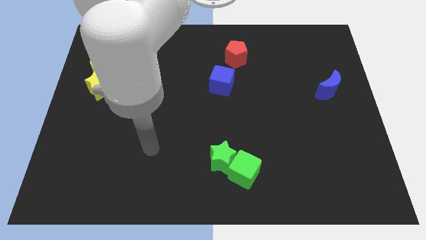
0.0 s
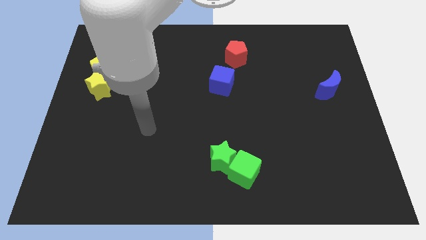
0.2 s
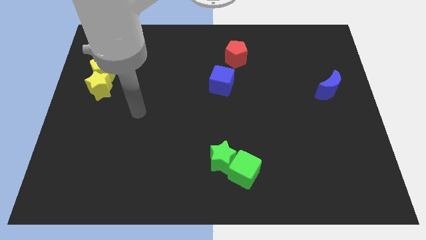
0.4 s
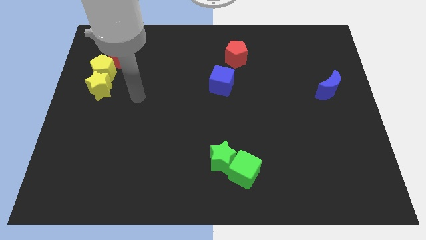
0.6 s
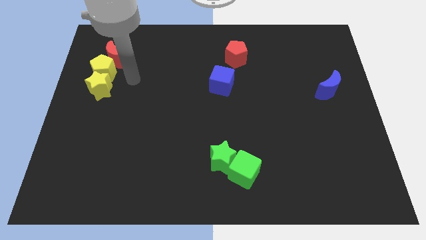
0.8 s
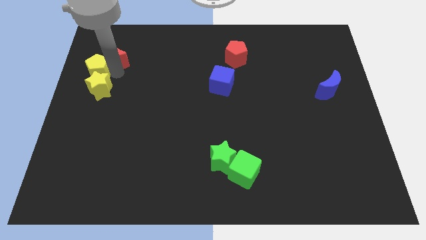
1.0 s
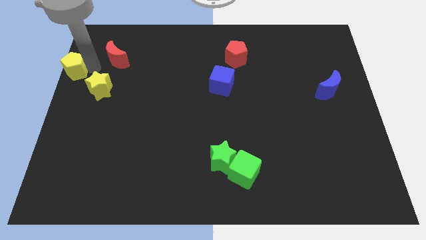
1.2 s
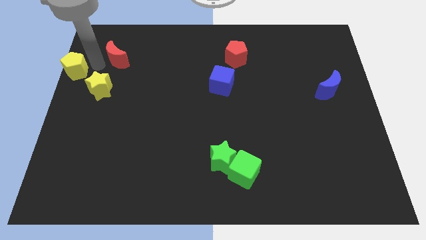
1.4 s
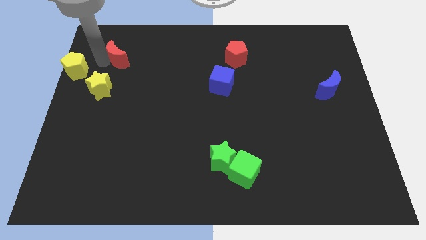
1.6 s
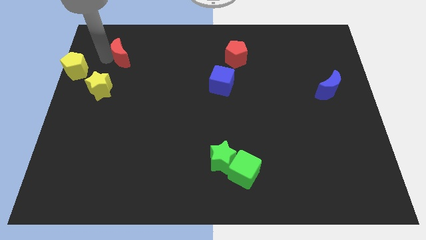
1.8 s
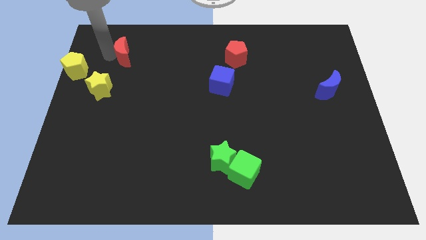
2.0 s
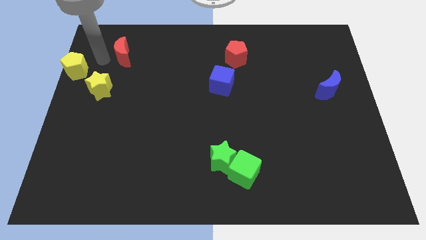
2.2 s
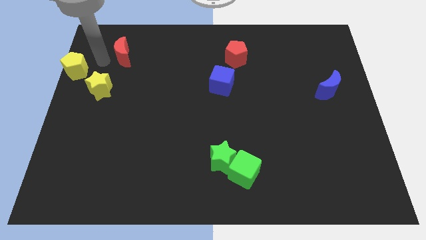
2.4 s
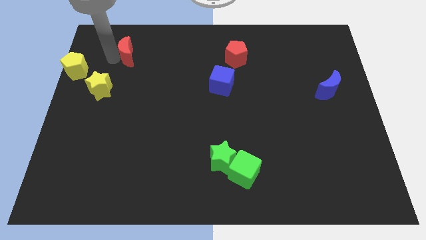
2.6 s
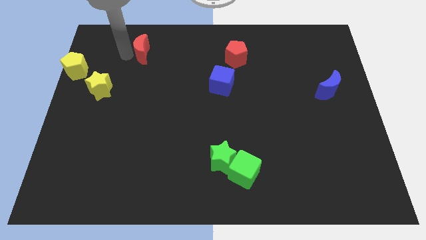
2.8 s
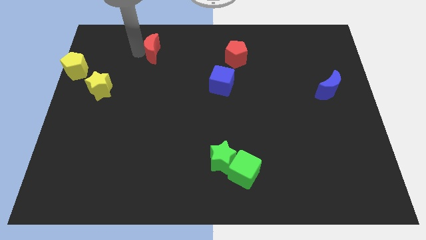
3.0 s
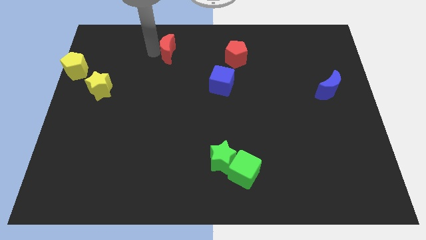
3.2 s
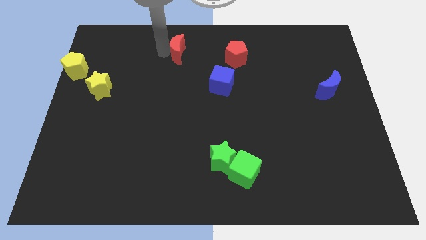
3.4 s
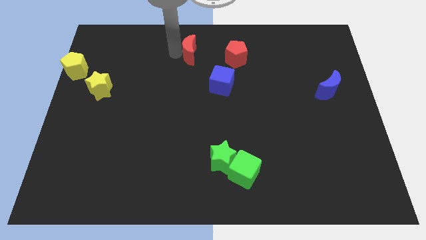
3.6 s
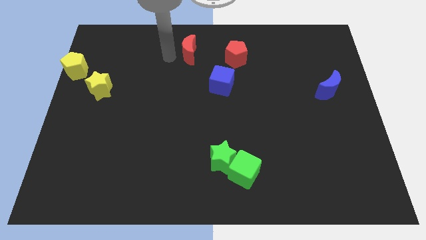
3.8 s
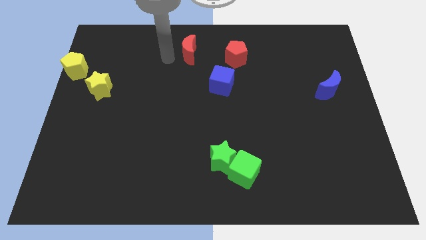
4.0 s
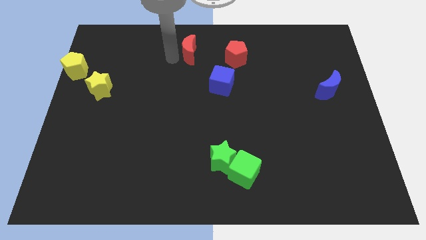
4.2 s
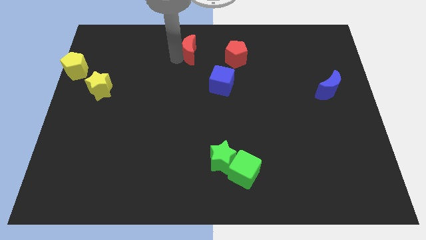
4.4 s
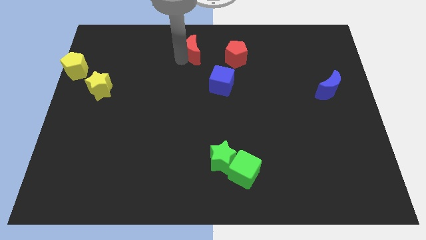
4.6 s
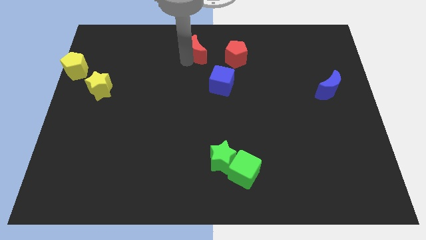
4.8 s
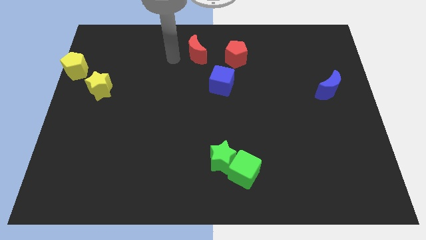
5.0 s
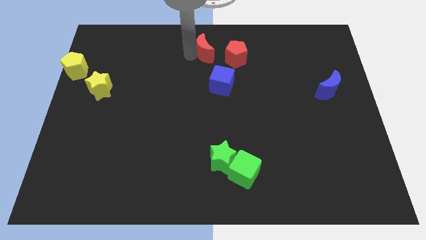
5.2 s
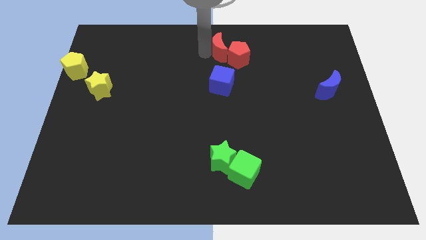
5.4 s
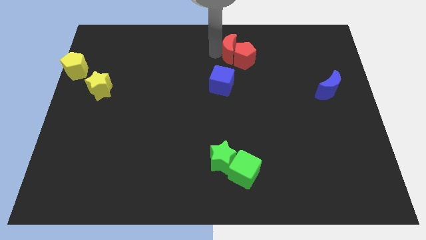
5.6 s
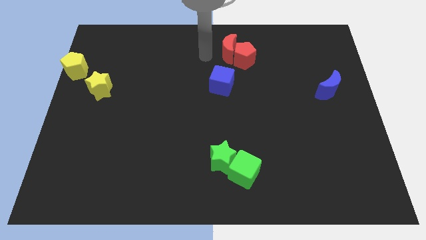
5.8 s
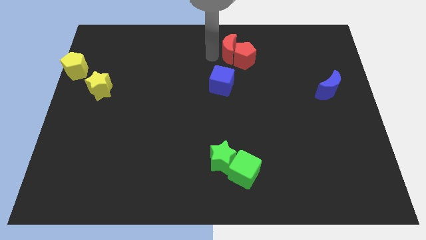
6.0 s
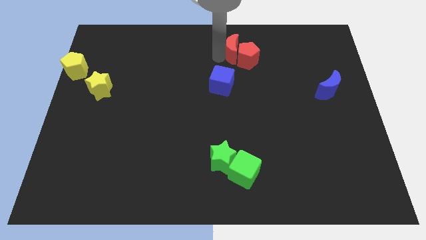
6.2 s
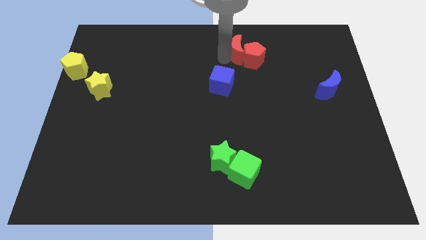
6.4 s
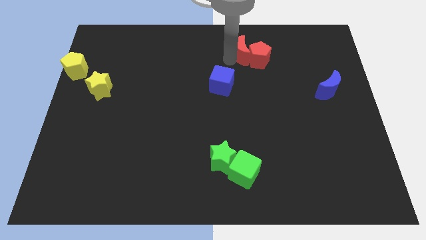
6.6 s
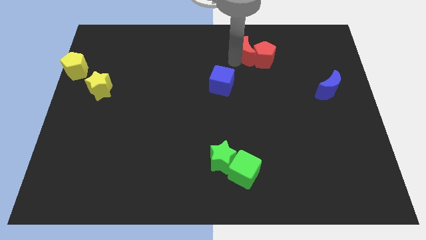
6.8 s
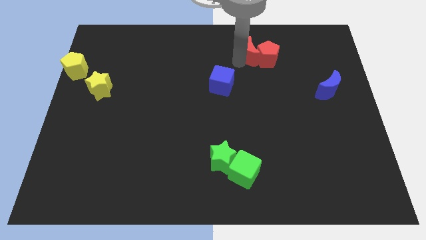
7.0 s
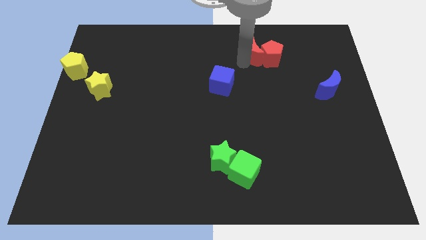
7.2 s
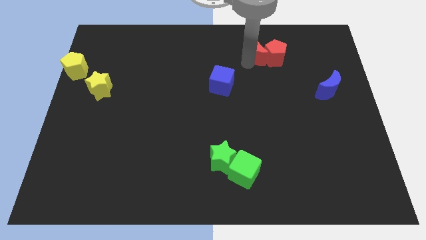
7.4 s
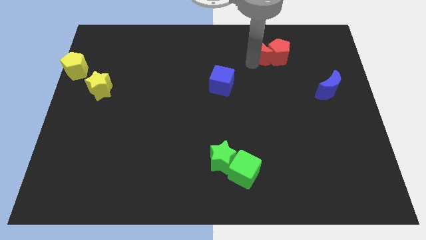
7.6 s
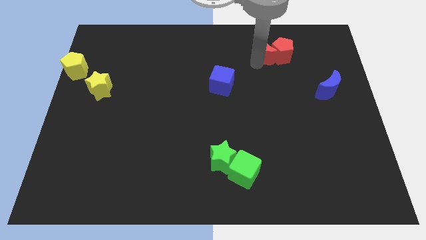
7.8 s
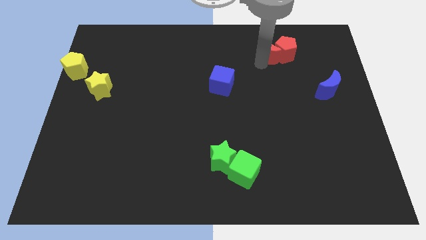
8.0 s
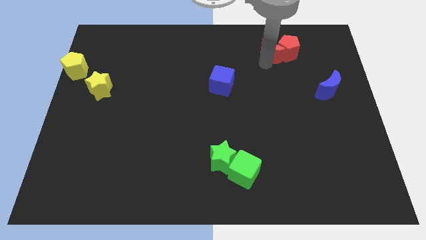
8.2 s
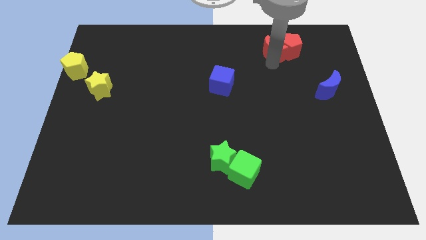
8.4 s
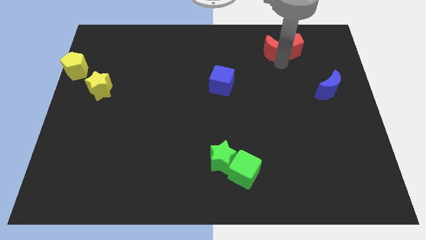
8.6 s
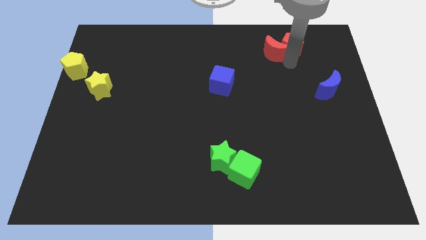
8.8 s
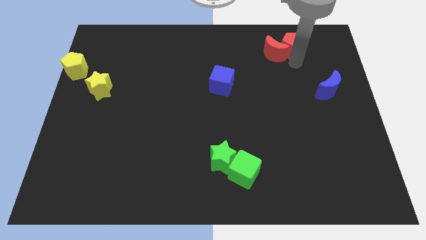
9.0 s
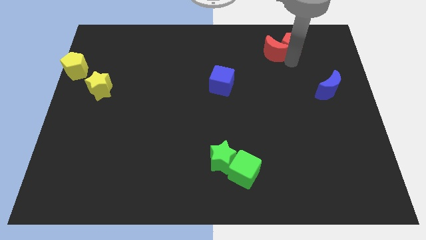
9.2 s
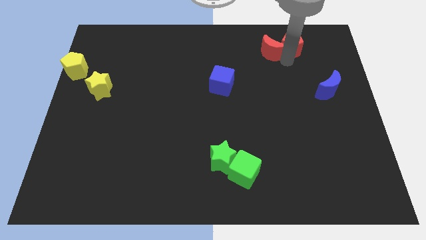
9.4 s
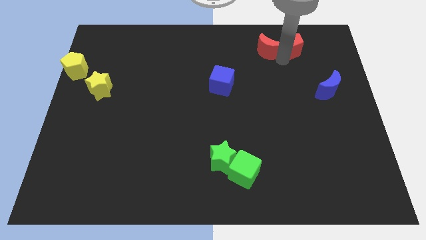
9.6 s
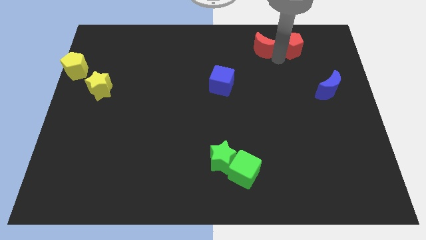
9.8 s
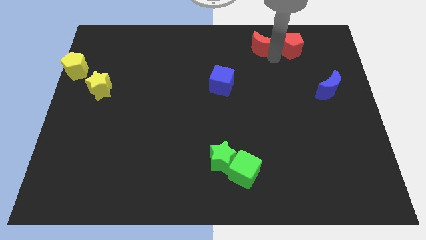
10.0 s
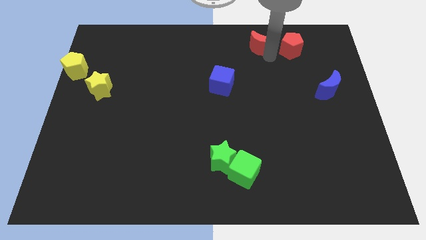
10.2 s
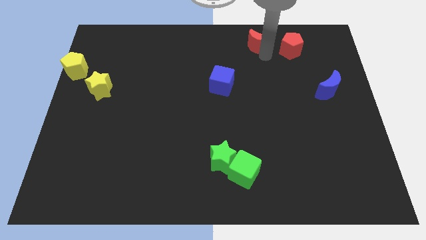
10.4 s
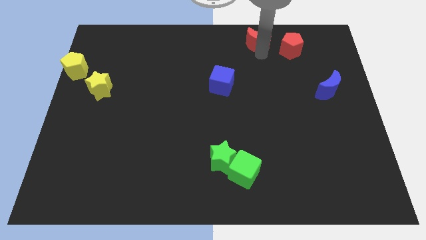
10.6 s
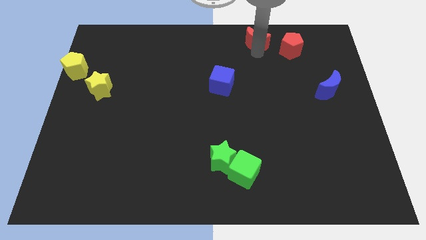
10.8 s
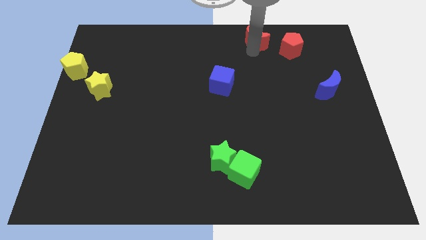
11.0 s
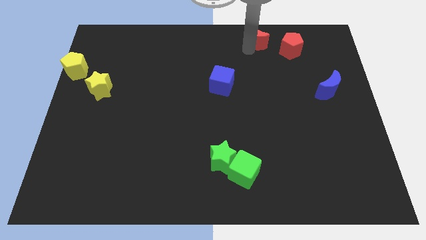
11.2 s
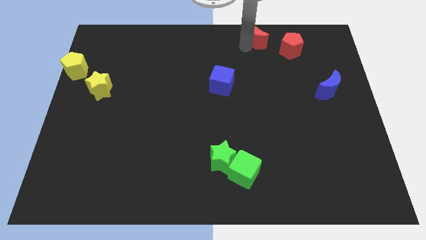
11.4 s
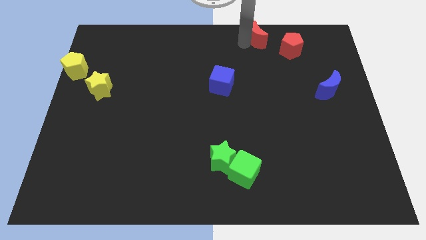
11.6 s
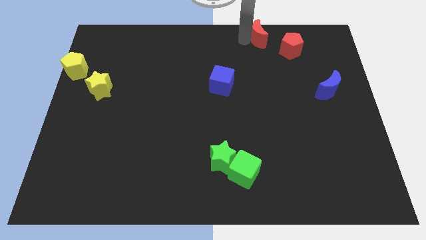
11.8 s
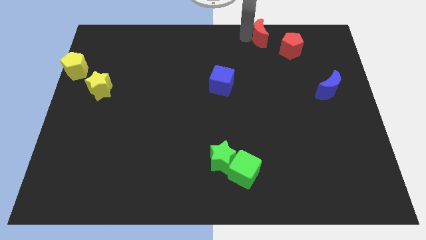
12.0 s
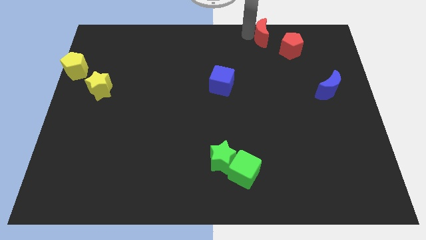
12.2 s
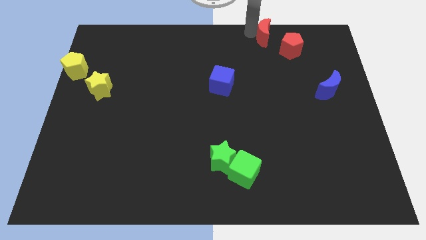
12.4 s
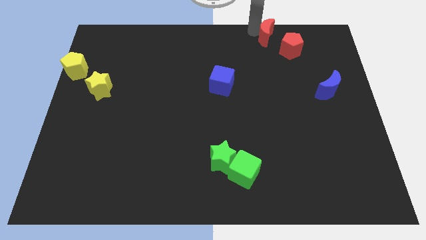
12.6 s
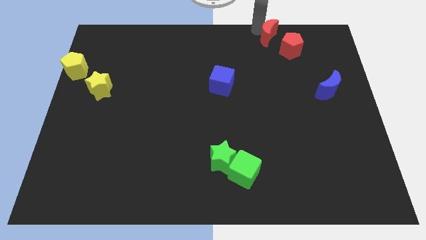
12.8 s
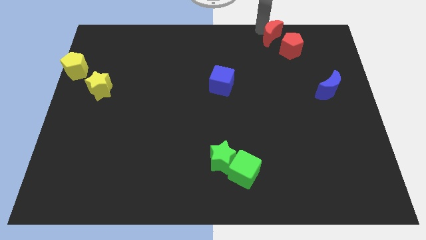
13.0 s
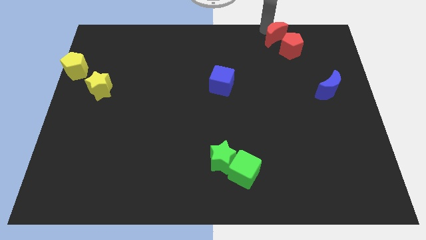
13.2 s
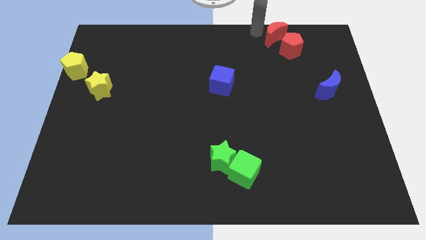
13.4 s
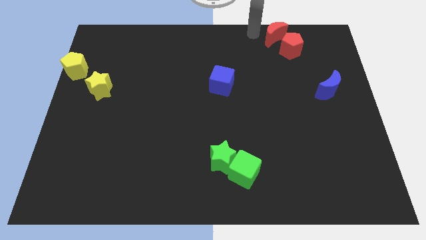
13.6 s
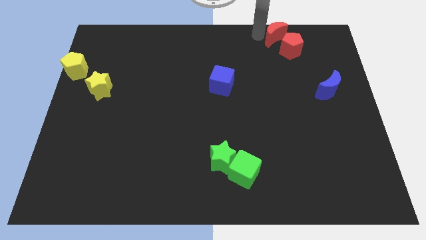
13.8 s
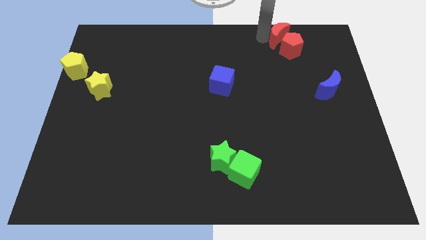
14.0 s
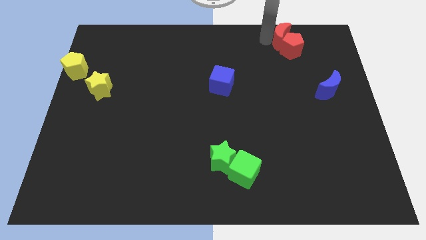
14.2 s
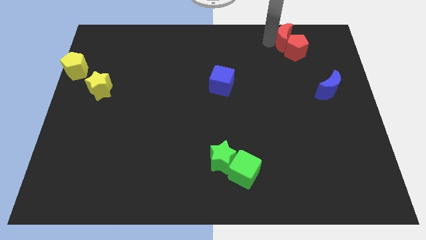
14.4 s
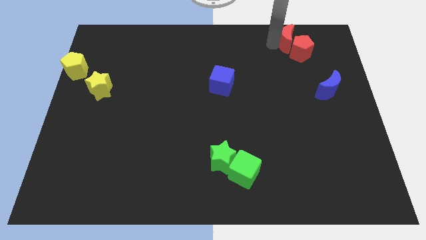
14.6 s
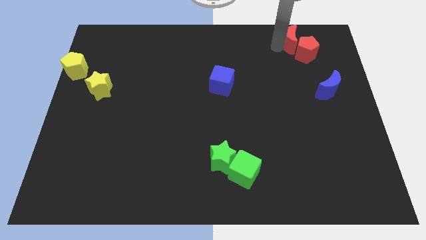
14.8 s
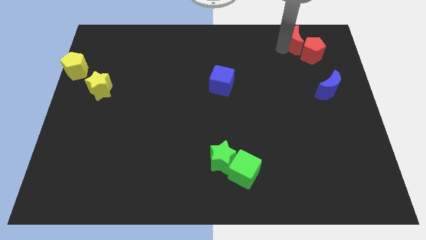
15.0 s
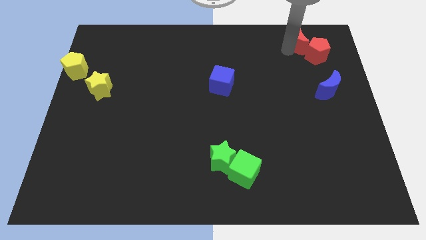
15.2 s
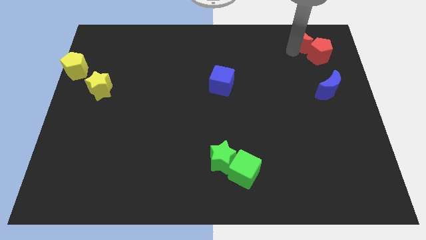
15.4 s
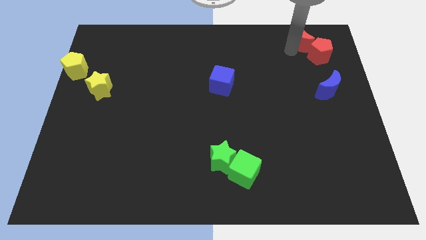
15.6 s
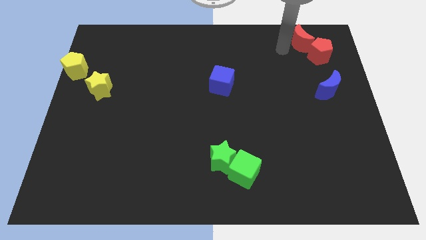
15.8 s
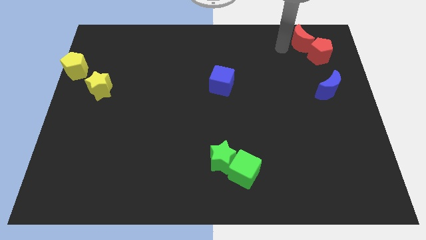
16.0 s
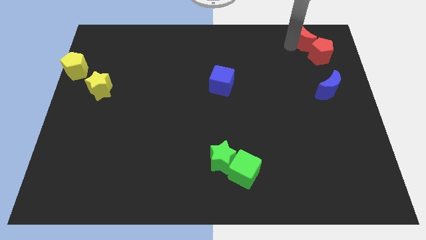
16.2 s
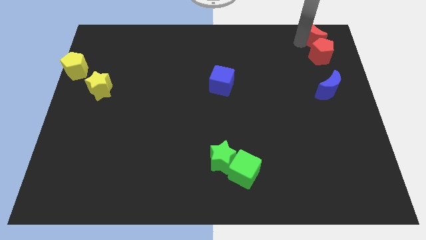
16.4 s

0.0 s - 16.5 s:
push the red moon to the top right of the board
